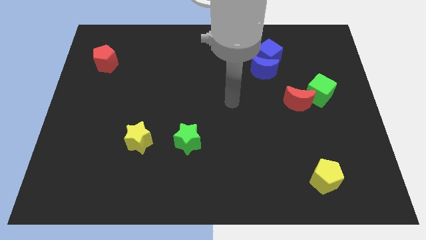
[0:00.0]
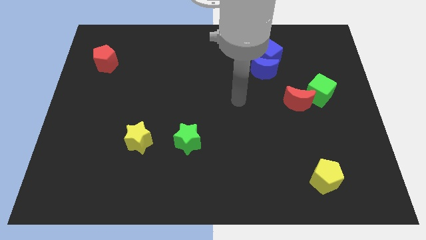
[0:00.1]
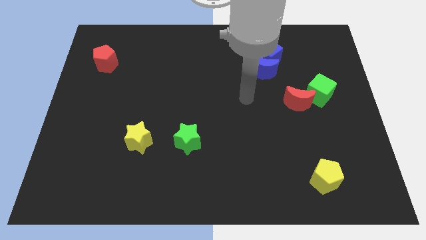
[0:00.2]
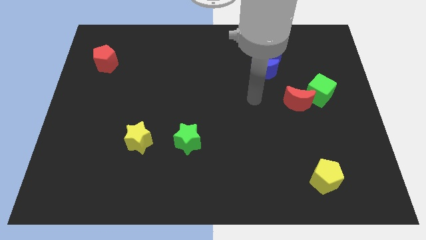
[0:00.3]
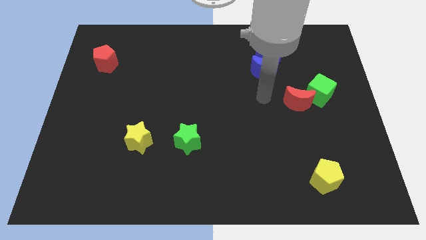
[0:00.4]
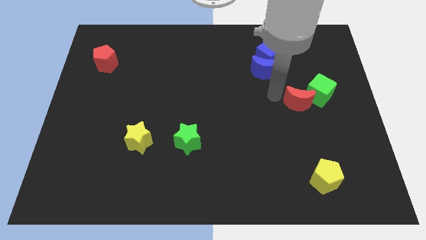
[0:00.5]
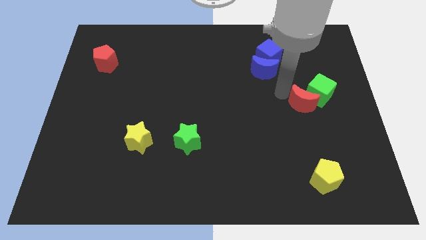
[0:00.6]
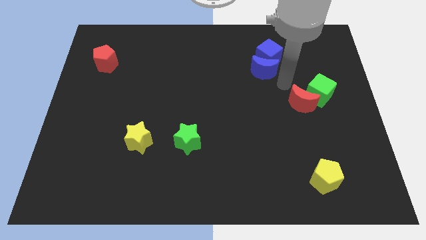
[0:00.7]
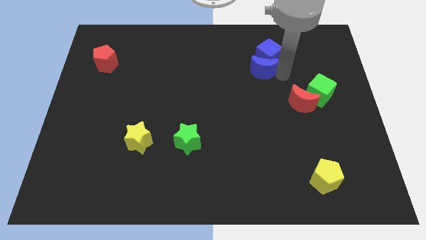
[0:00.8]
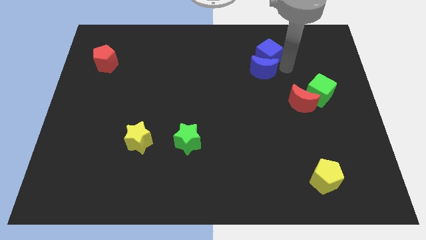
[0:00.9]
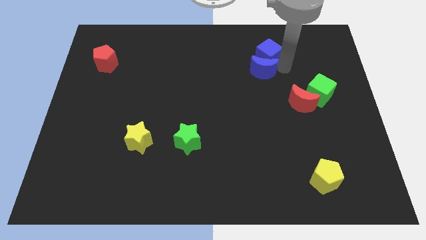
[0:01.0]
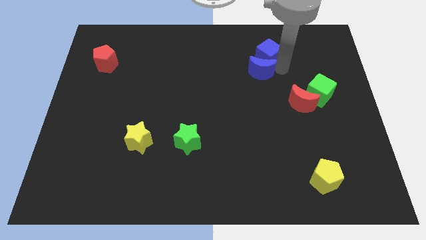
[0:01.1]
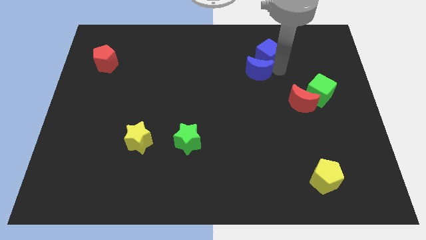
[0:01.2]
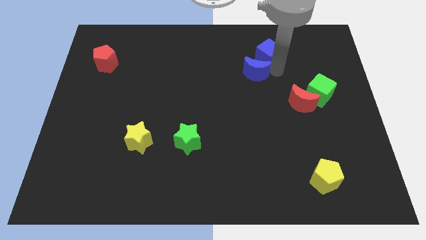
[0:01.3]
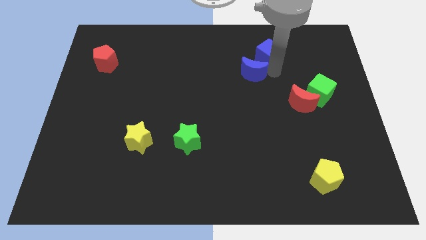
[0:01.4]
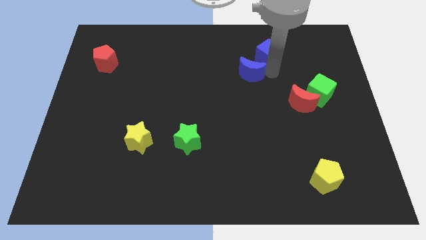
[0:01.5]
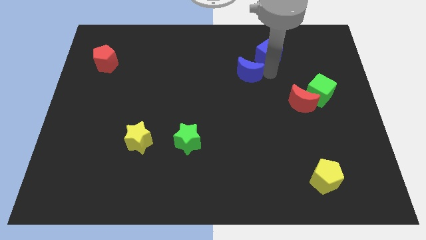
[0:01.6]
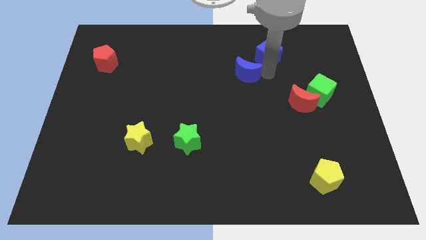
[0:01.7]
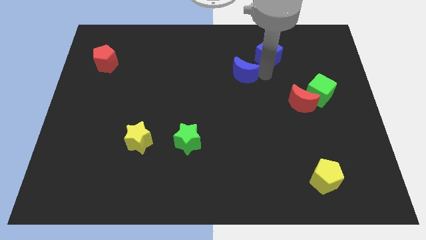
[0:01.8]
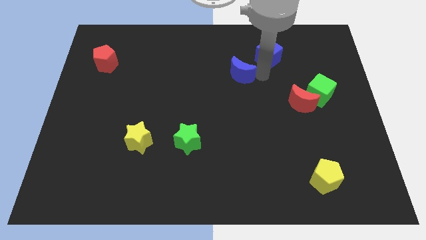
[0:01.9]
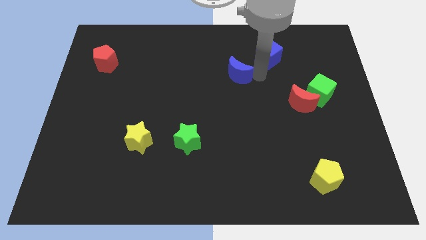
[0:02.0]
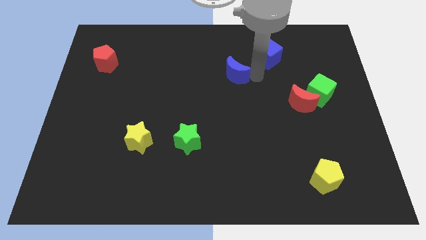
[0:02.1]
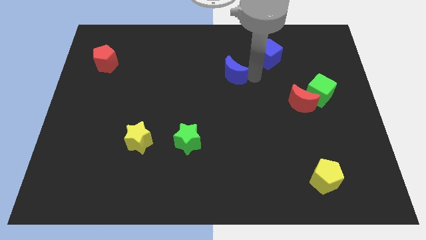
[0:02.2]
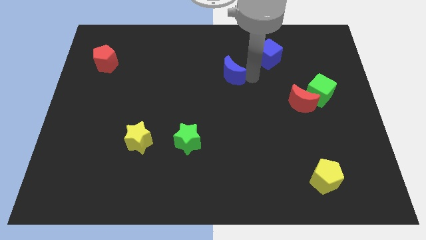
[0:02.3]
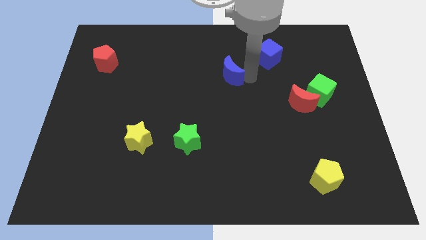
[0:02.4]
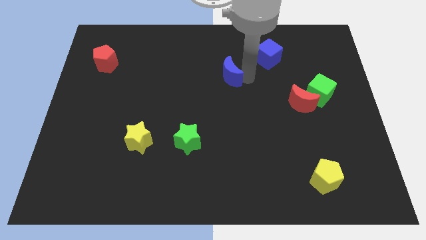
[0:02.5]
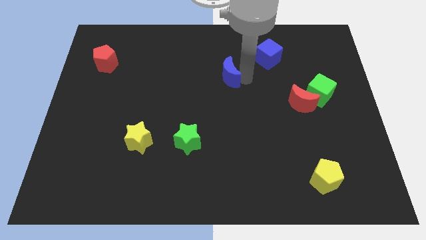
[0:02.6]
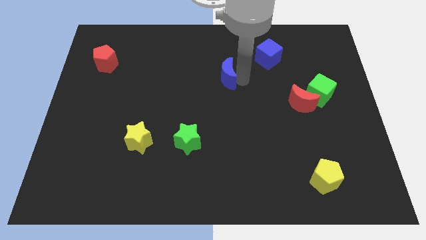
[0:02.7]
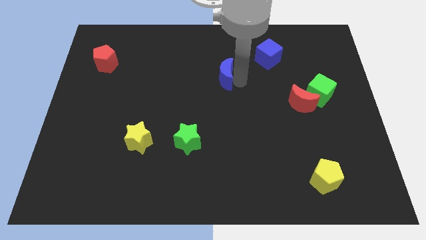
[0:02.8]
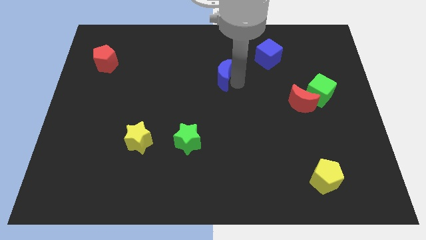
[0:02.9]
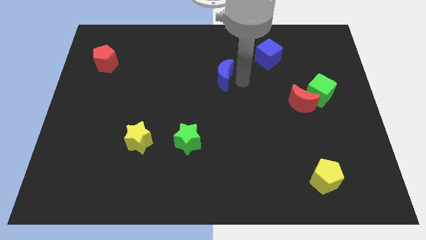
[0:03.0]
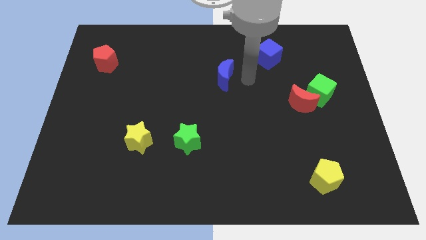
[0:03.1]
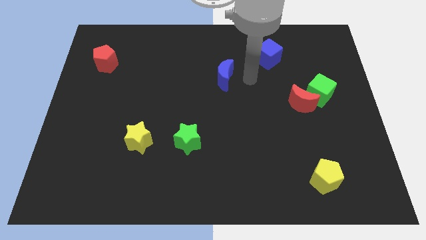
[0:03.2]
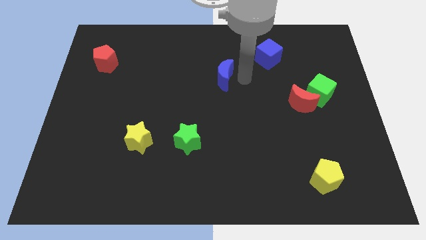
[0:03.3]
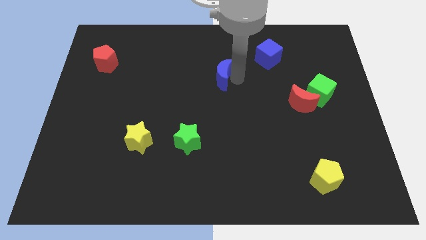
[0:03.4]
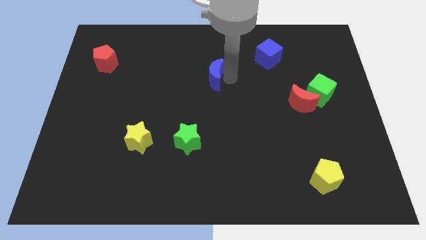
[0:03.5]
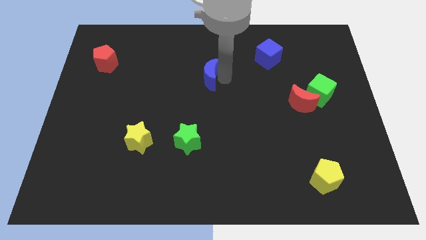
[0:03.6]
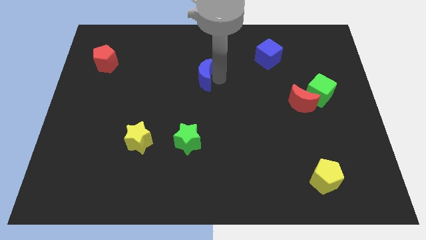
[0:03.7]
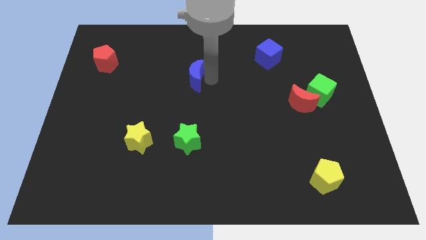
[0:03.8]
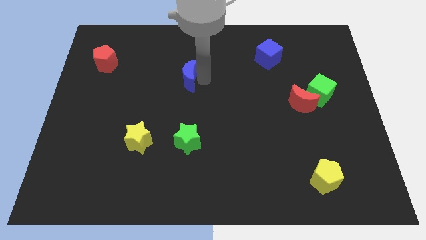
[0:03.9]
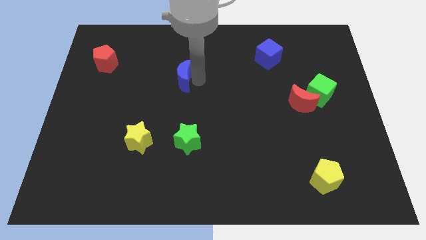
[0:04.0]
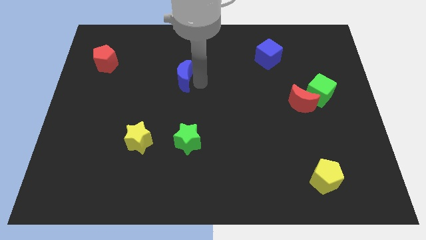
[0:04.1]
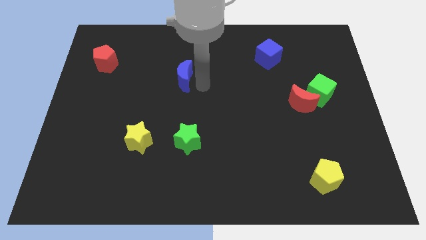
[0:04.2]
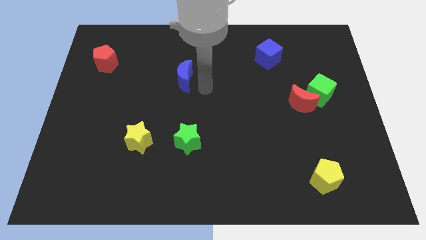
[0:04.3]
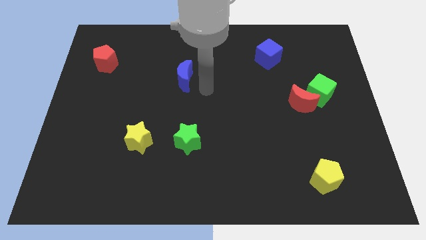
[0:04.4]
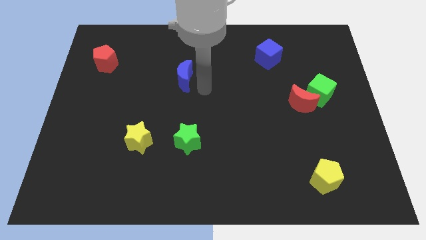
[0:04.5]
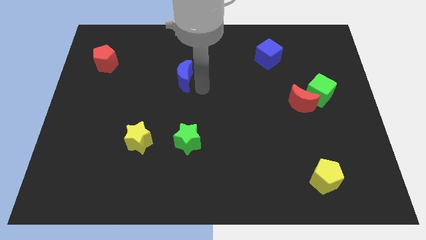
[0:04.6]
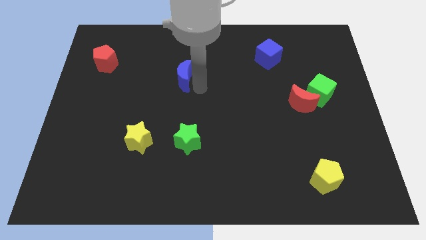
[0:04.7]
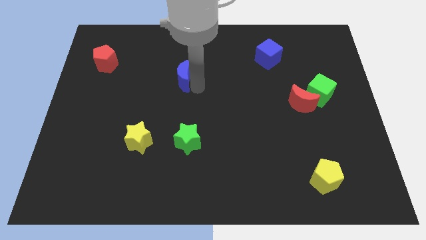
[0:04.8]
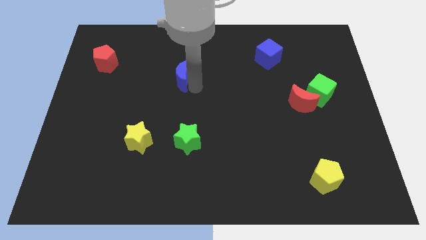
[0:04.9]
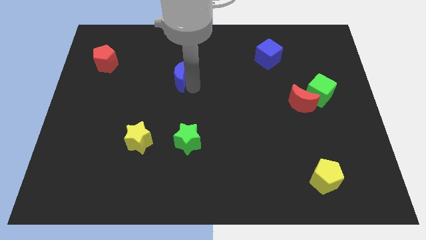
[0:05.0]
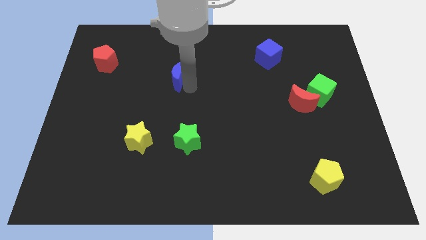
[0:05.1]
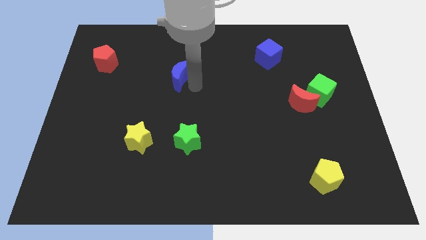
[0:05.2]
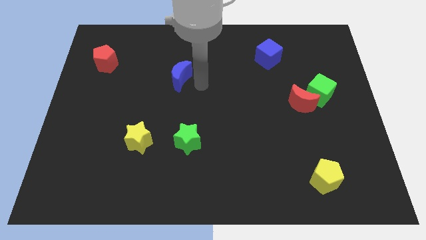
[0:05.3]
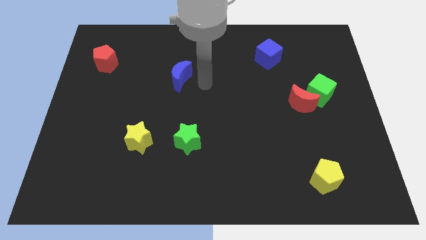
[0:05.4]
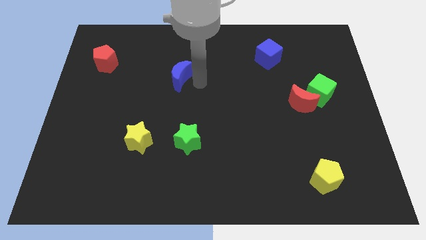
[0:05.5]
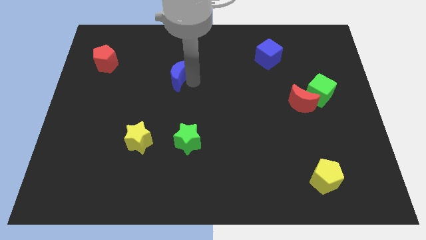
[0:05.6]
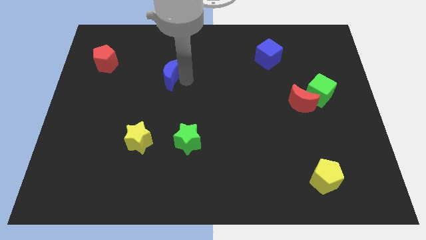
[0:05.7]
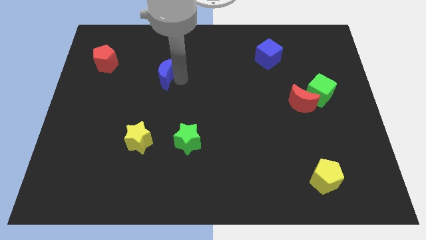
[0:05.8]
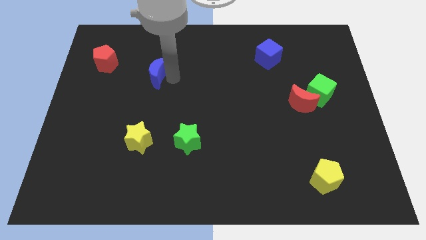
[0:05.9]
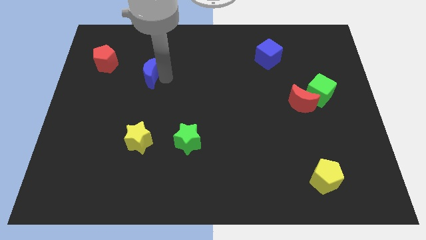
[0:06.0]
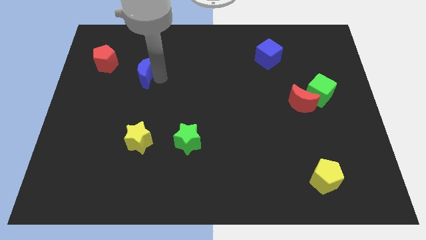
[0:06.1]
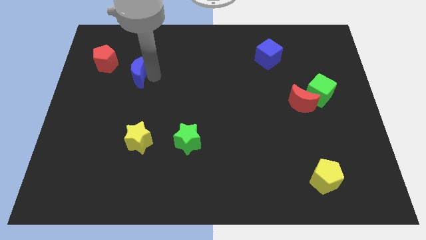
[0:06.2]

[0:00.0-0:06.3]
push the blue moon to the bottom right of the red pentagon

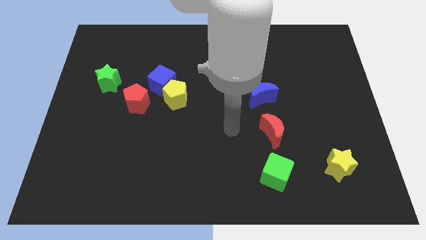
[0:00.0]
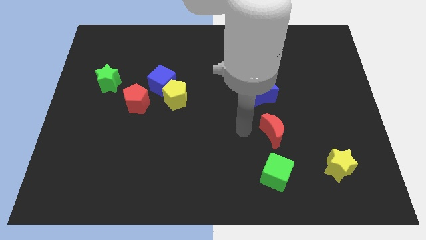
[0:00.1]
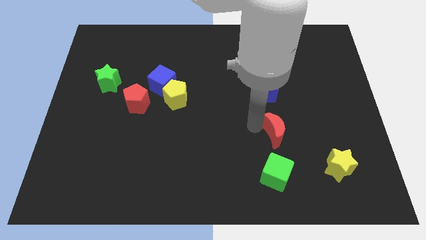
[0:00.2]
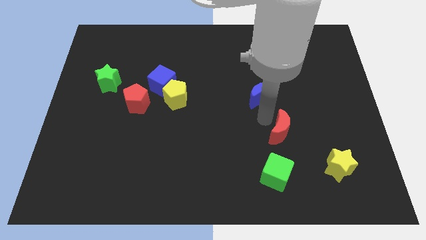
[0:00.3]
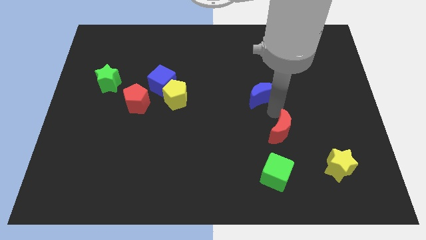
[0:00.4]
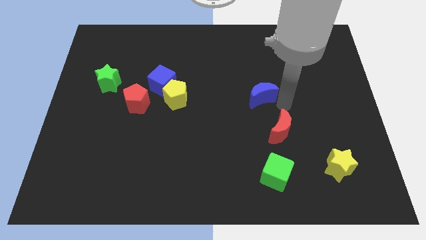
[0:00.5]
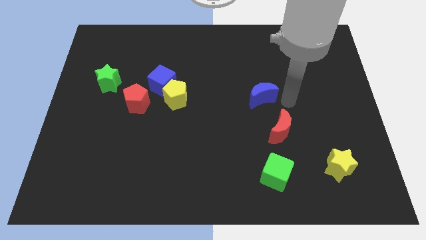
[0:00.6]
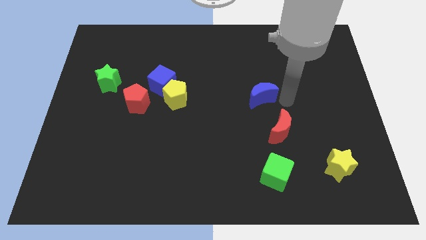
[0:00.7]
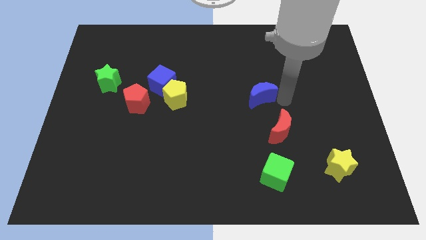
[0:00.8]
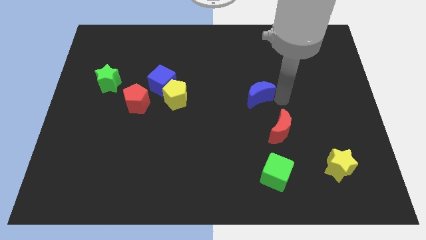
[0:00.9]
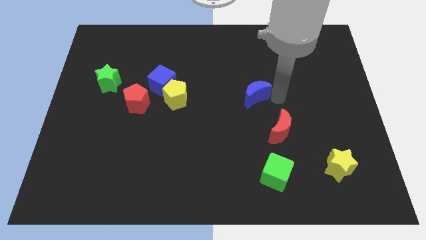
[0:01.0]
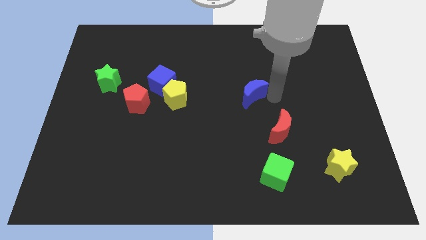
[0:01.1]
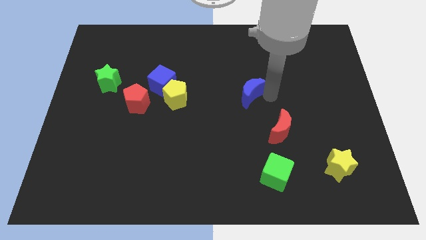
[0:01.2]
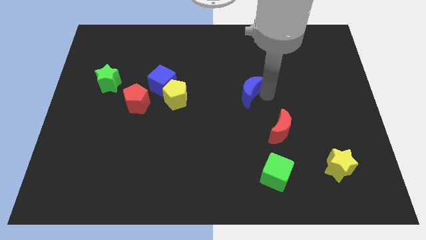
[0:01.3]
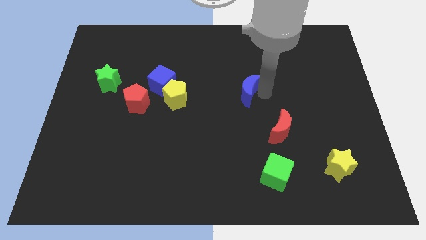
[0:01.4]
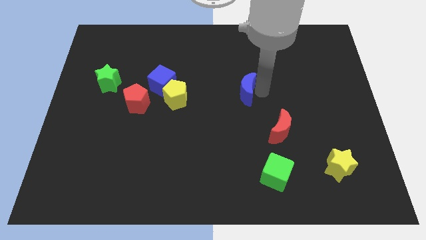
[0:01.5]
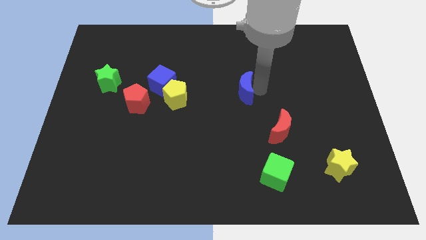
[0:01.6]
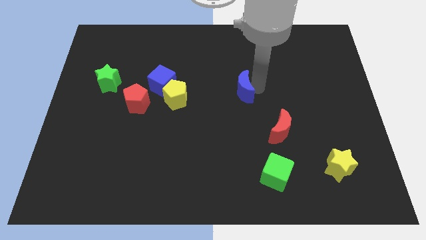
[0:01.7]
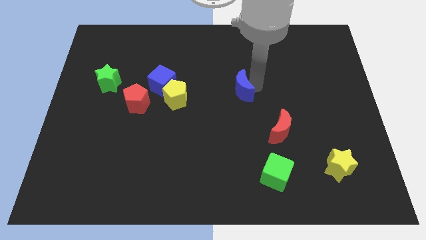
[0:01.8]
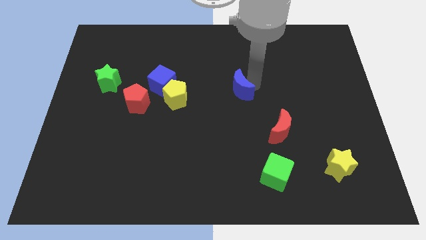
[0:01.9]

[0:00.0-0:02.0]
slide the blue moon to the right of the yellow pentagon
